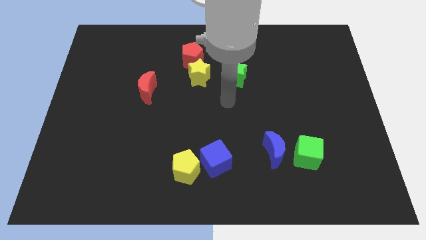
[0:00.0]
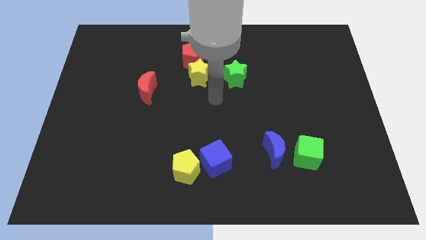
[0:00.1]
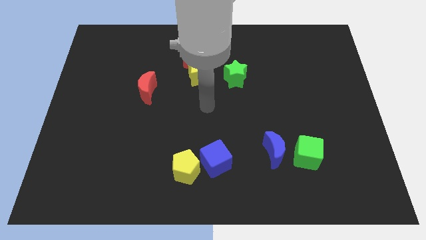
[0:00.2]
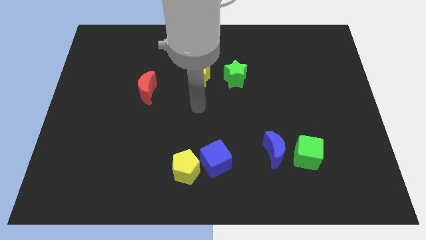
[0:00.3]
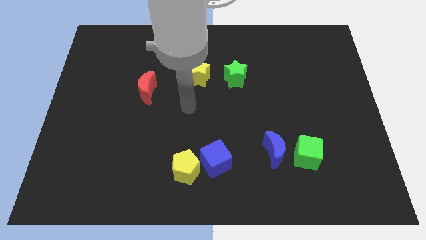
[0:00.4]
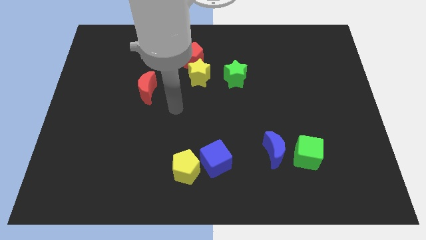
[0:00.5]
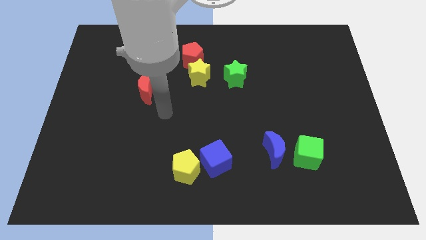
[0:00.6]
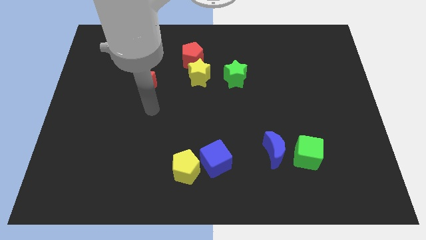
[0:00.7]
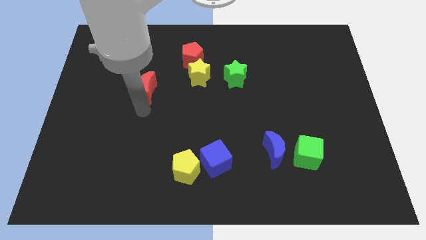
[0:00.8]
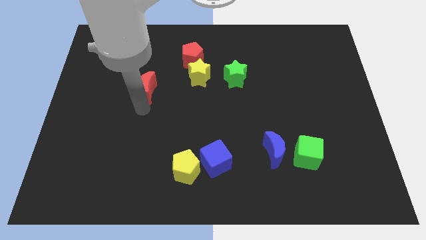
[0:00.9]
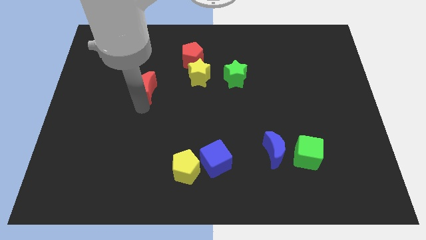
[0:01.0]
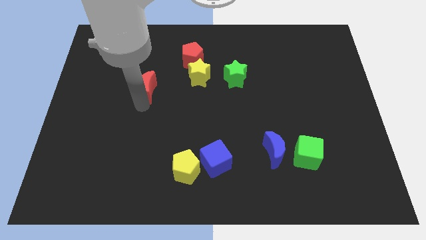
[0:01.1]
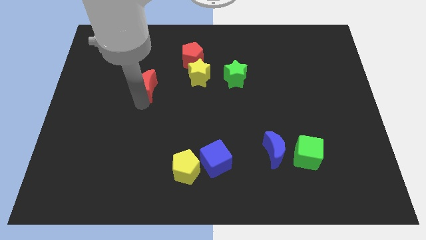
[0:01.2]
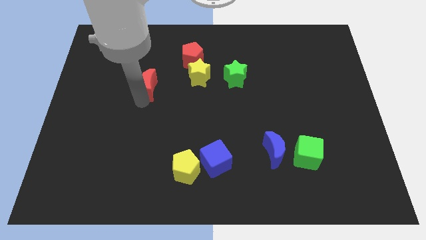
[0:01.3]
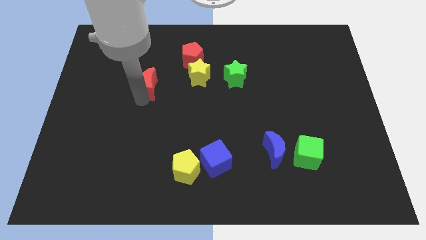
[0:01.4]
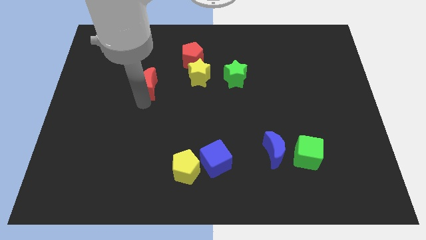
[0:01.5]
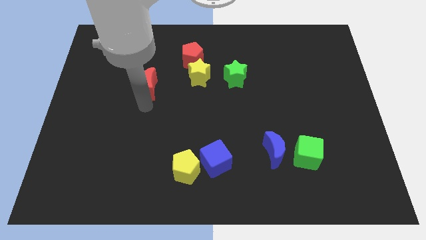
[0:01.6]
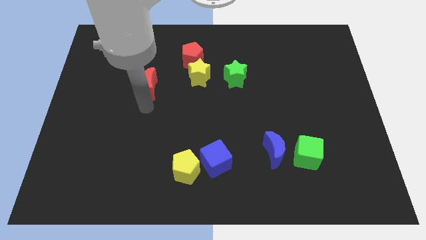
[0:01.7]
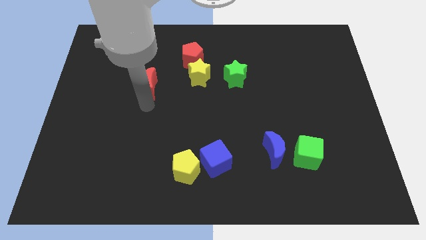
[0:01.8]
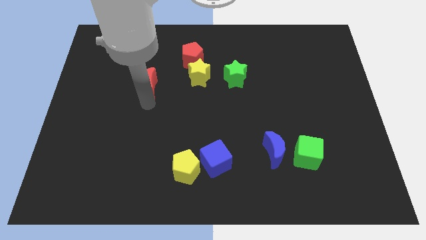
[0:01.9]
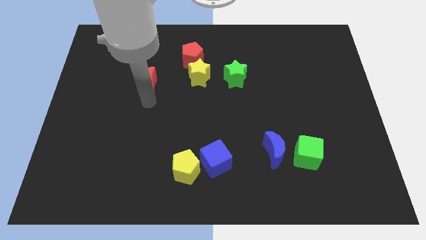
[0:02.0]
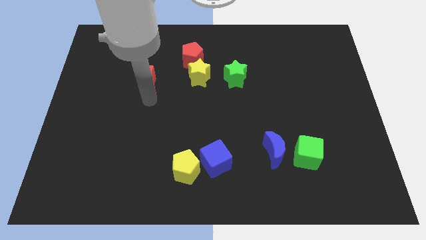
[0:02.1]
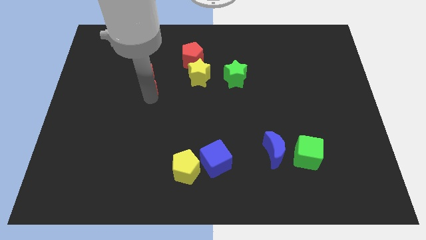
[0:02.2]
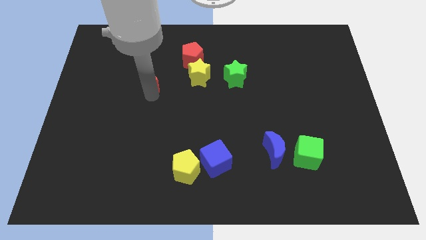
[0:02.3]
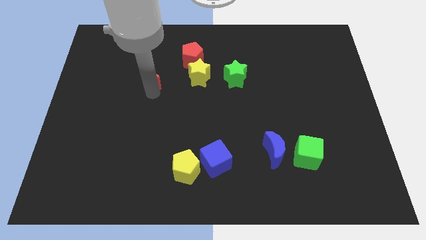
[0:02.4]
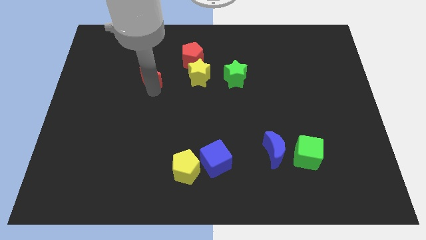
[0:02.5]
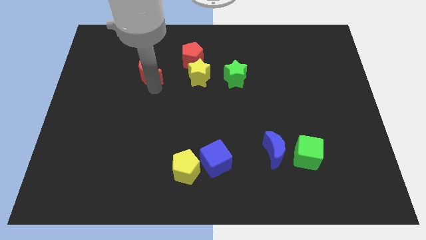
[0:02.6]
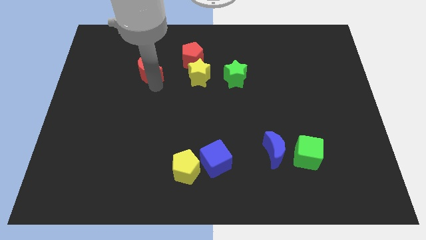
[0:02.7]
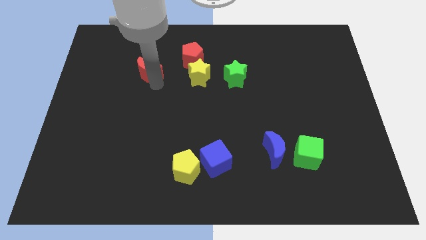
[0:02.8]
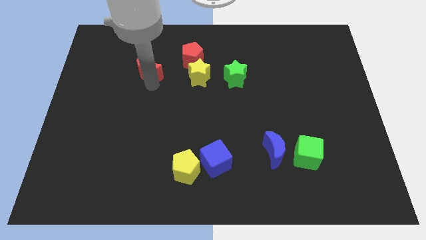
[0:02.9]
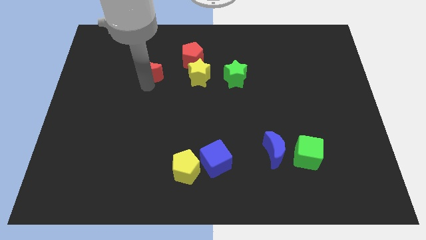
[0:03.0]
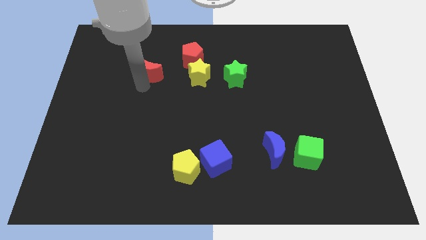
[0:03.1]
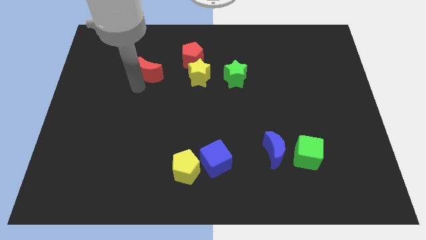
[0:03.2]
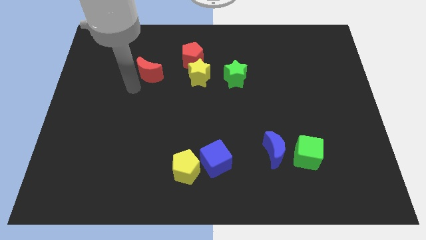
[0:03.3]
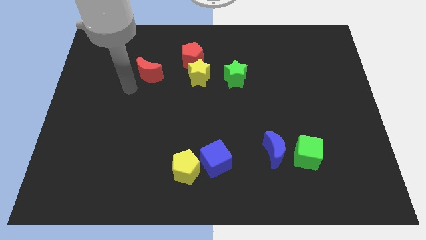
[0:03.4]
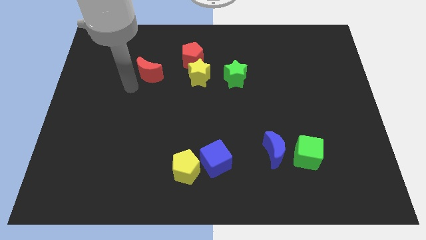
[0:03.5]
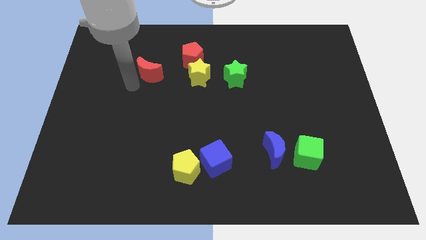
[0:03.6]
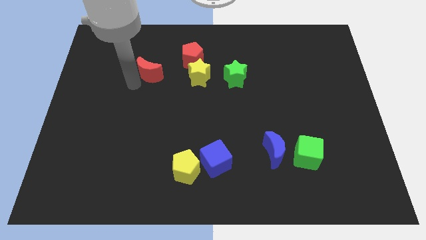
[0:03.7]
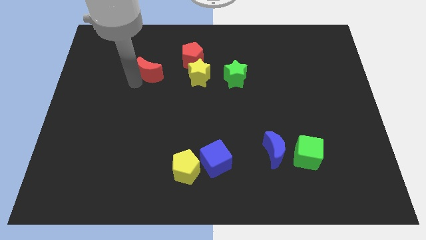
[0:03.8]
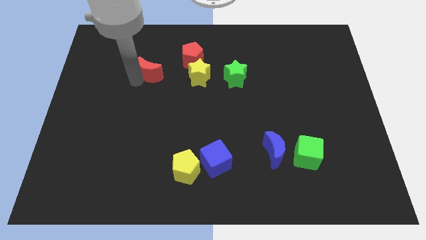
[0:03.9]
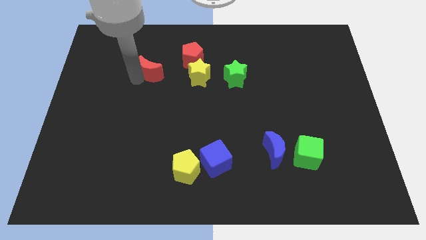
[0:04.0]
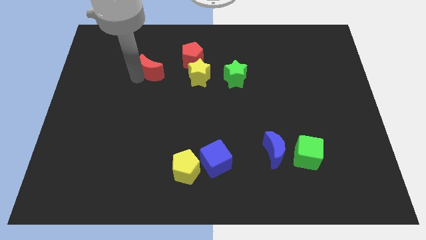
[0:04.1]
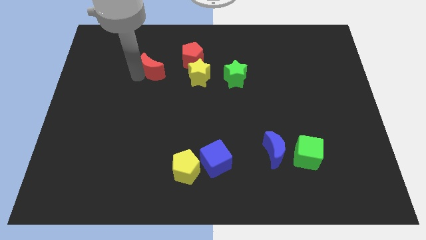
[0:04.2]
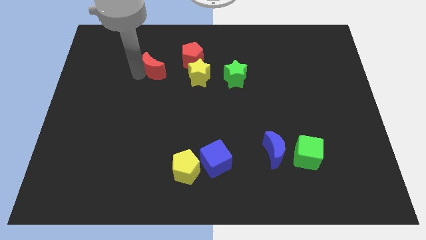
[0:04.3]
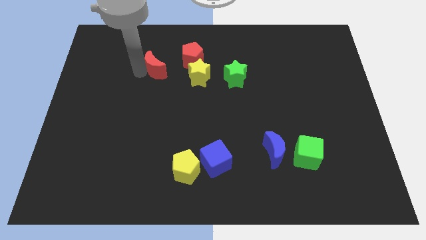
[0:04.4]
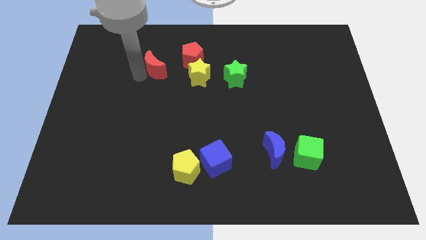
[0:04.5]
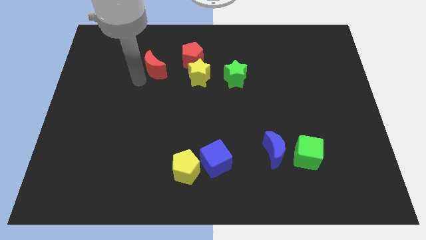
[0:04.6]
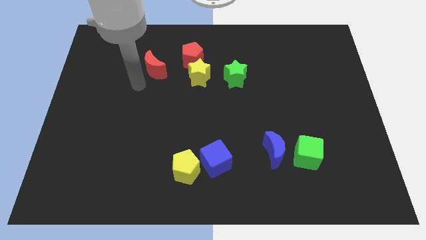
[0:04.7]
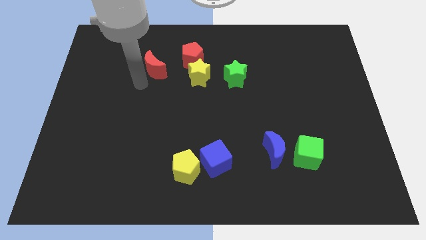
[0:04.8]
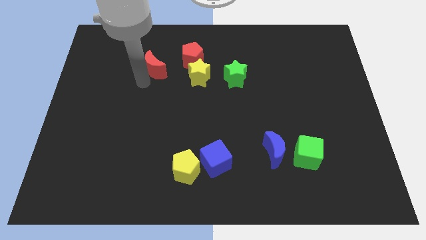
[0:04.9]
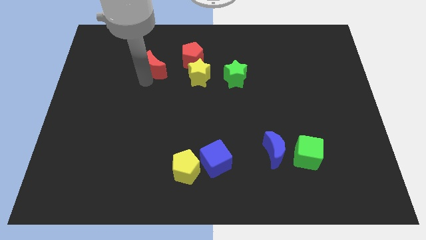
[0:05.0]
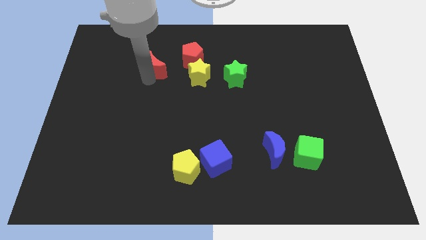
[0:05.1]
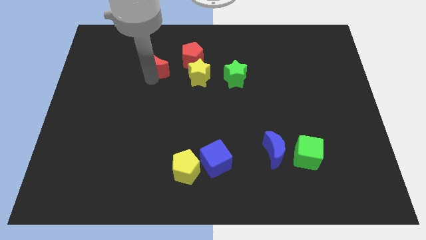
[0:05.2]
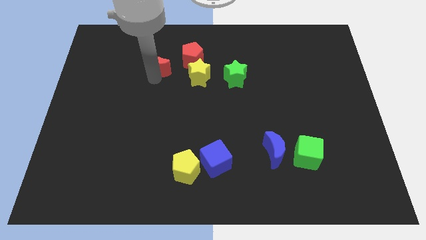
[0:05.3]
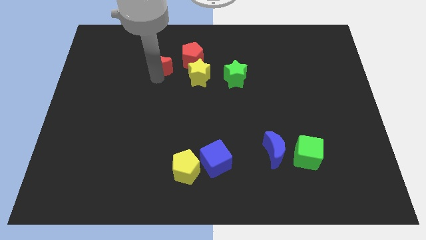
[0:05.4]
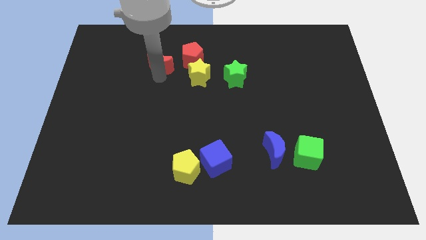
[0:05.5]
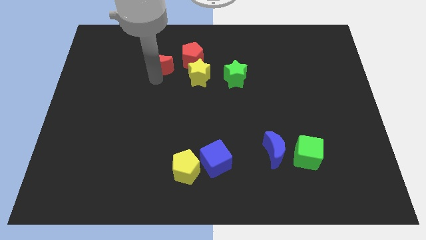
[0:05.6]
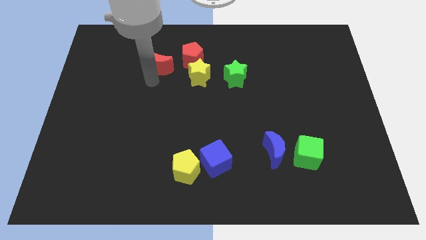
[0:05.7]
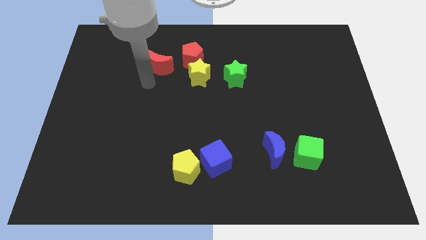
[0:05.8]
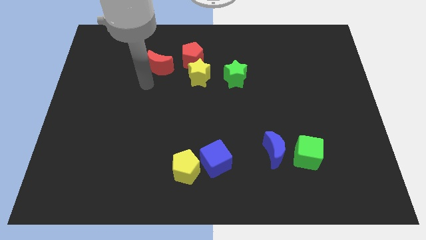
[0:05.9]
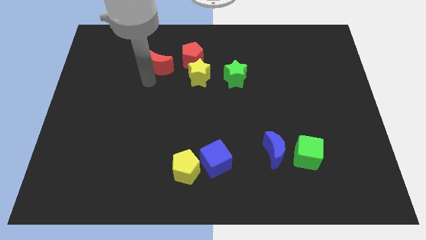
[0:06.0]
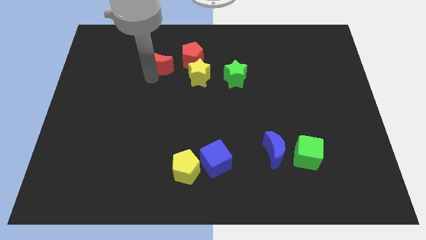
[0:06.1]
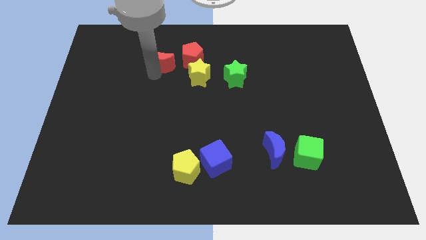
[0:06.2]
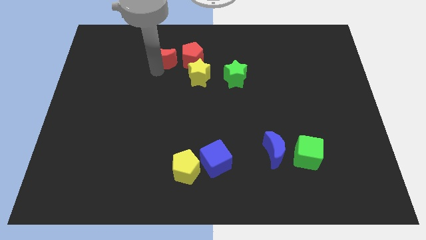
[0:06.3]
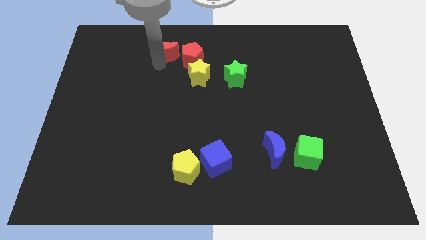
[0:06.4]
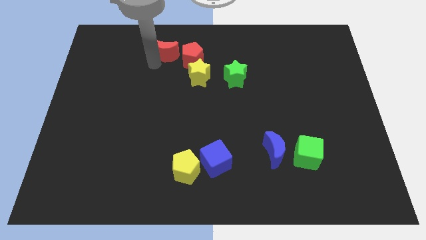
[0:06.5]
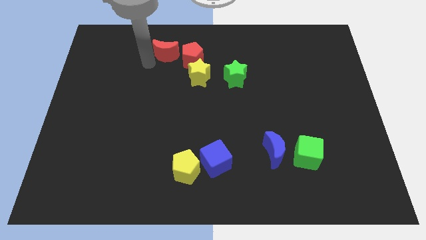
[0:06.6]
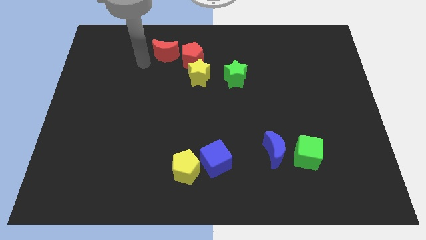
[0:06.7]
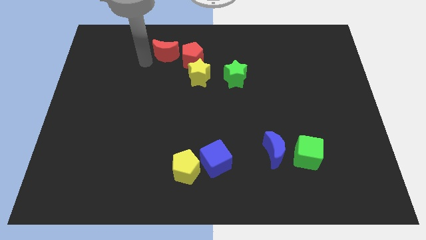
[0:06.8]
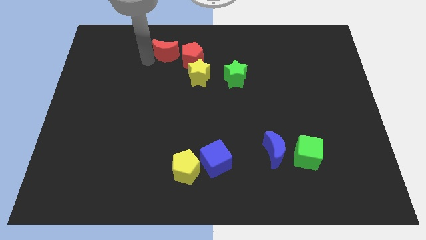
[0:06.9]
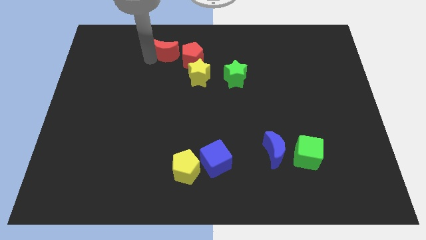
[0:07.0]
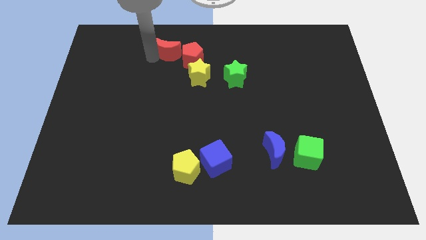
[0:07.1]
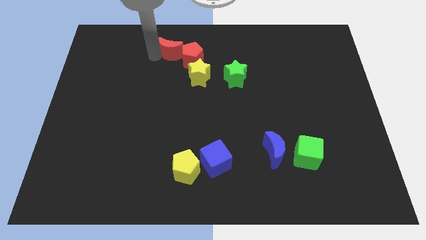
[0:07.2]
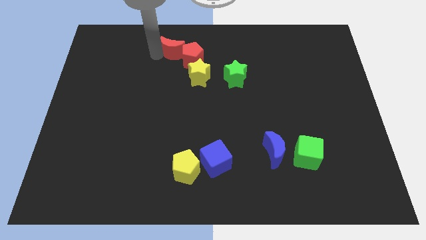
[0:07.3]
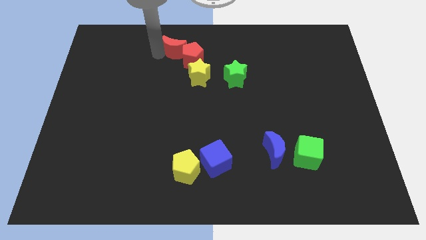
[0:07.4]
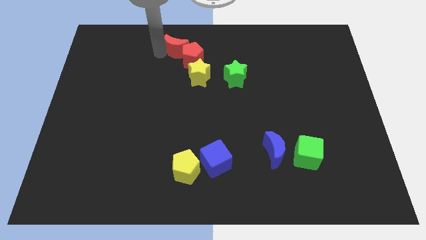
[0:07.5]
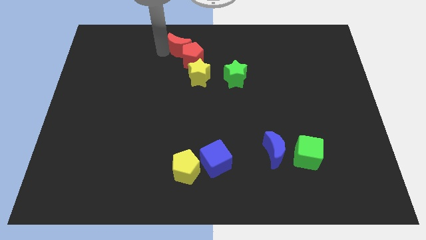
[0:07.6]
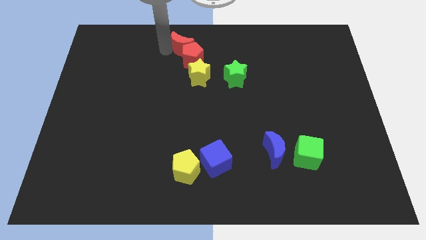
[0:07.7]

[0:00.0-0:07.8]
slide the red moon to the top side
